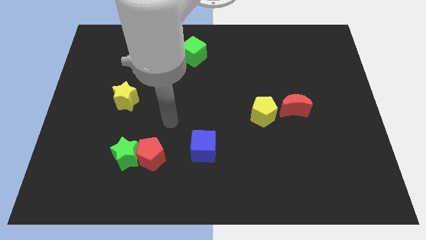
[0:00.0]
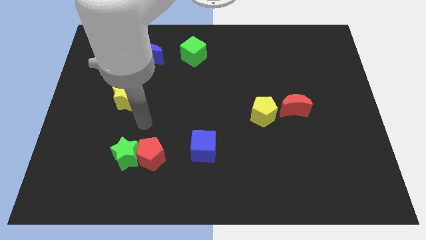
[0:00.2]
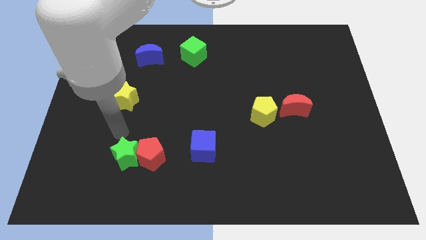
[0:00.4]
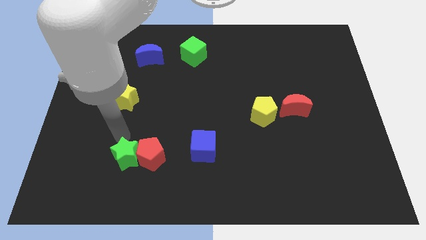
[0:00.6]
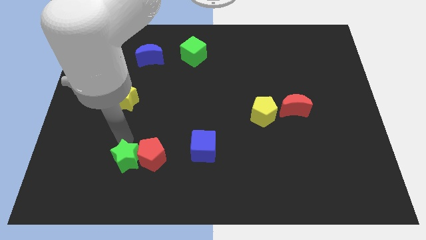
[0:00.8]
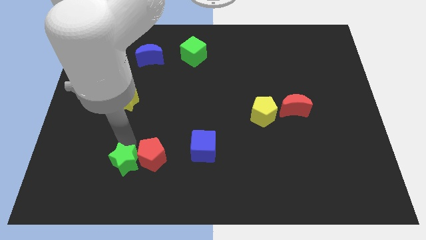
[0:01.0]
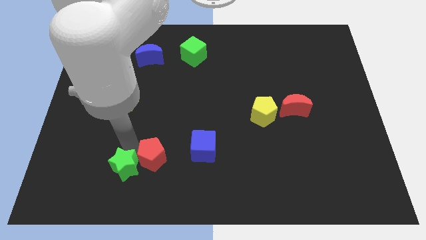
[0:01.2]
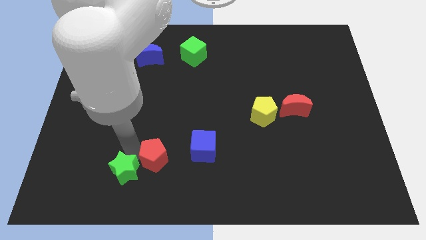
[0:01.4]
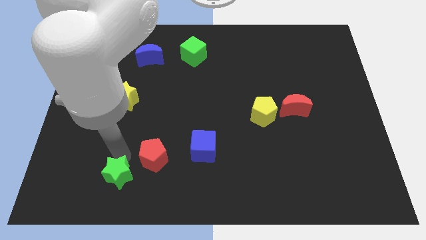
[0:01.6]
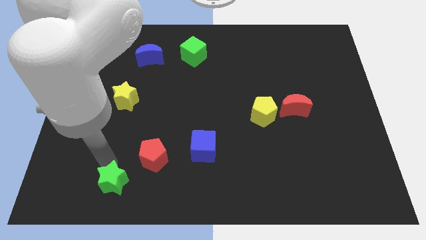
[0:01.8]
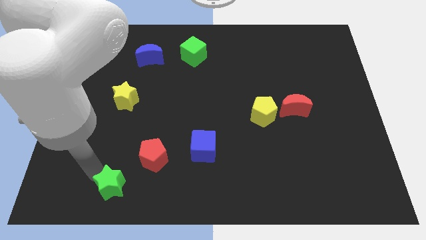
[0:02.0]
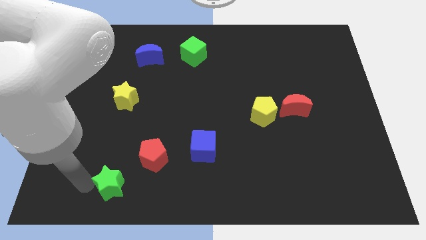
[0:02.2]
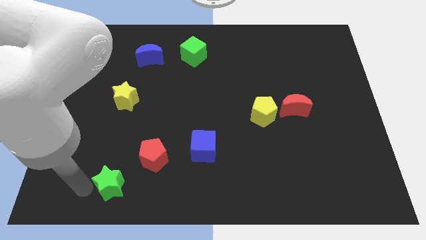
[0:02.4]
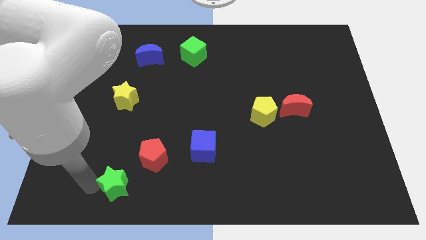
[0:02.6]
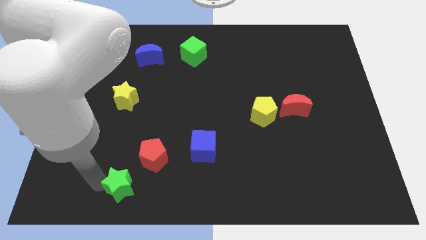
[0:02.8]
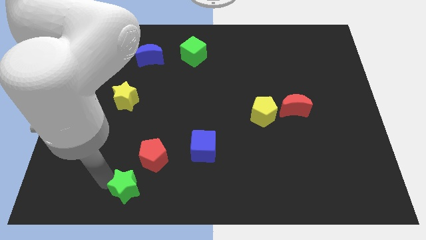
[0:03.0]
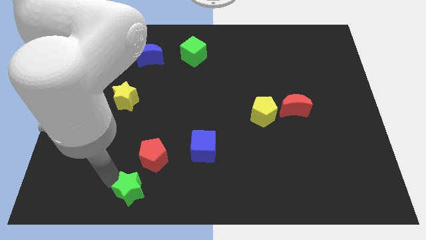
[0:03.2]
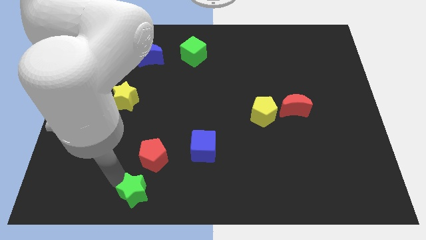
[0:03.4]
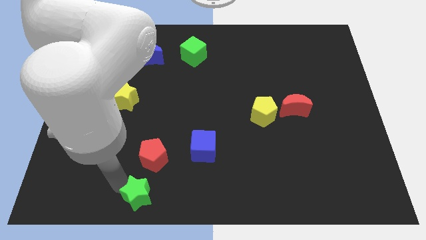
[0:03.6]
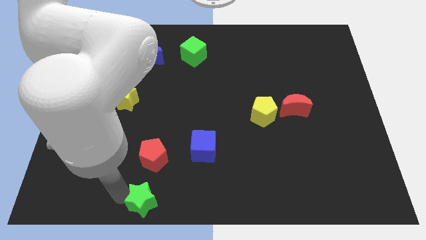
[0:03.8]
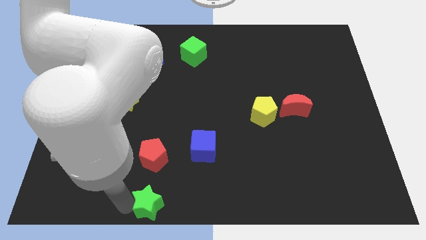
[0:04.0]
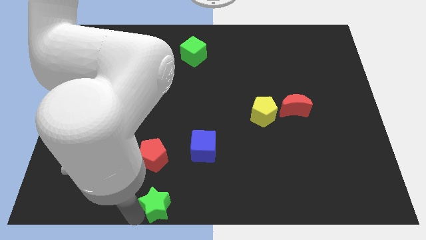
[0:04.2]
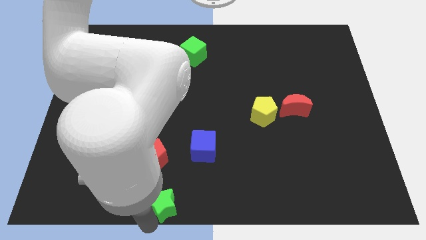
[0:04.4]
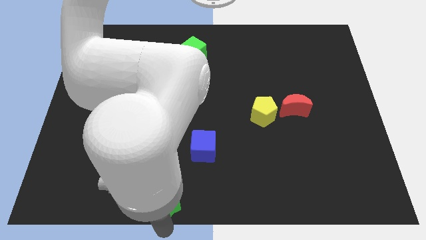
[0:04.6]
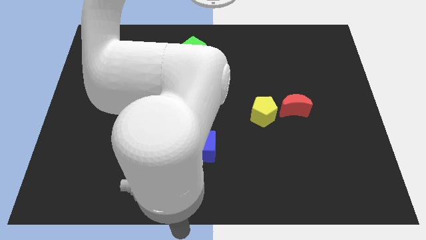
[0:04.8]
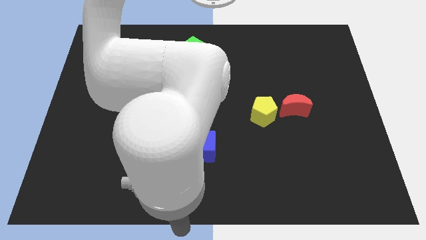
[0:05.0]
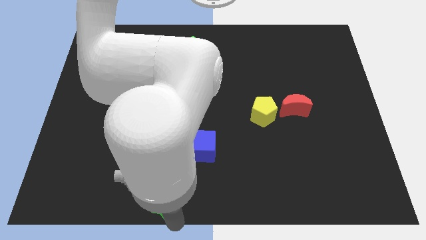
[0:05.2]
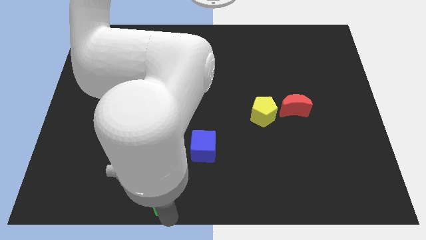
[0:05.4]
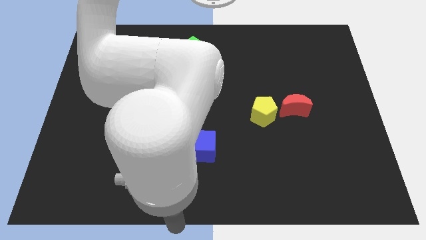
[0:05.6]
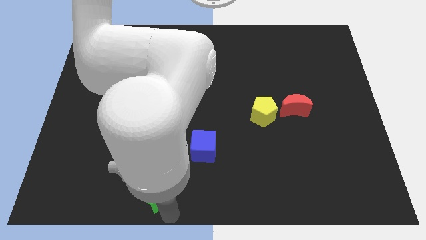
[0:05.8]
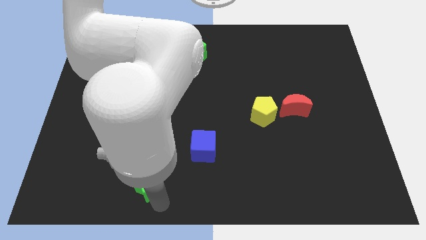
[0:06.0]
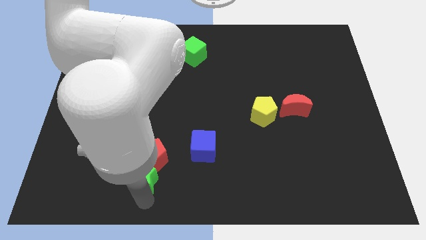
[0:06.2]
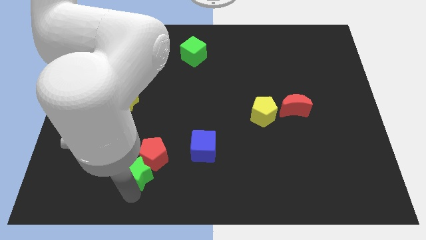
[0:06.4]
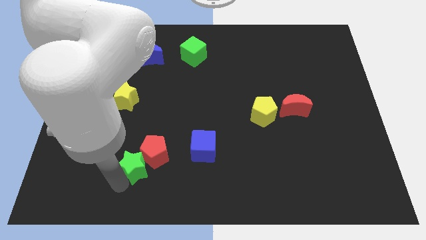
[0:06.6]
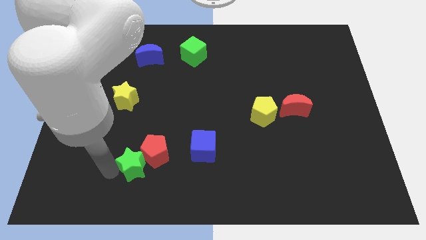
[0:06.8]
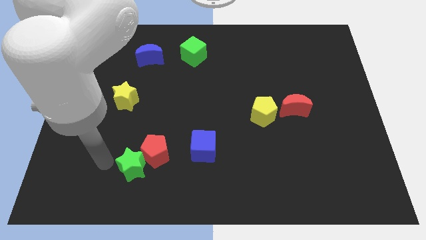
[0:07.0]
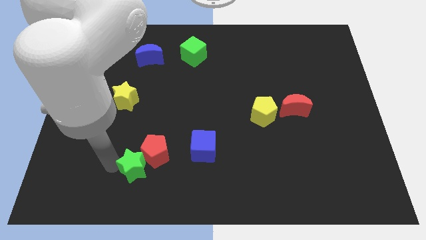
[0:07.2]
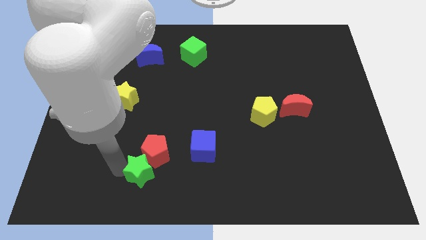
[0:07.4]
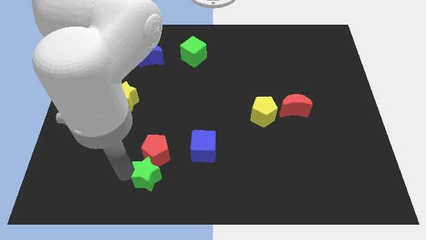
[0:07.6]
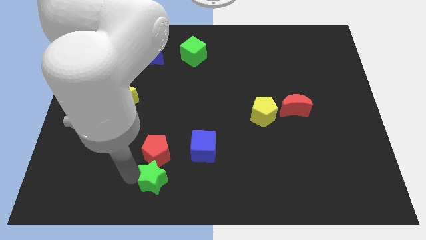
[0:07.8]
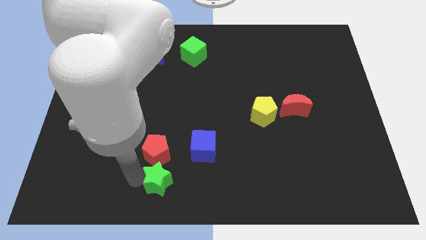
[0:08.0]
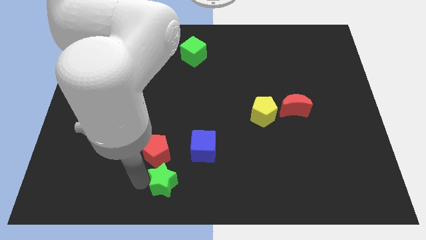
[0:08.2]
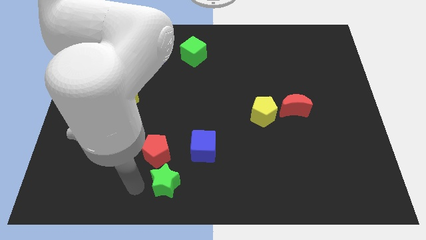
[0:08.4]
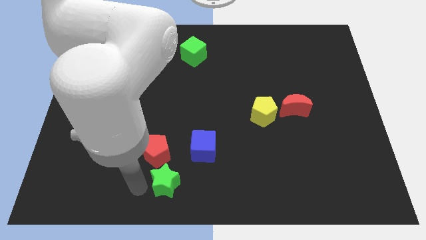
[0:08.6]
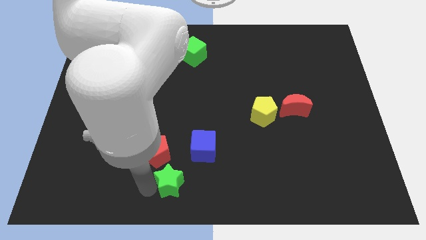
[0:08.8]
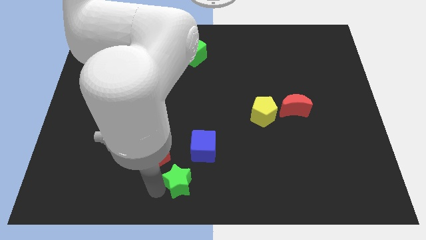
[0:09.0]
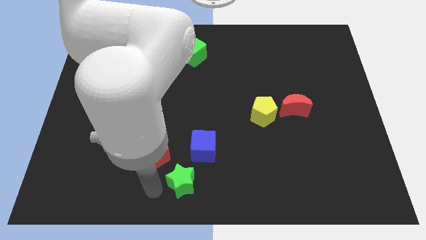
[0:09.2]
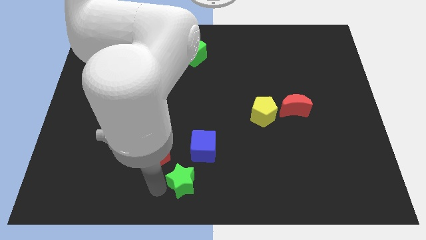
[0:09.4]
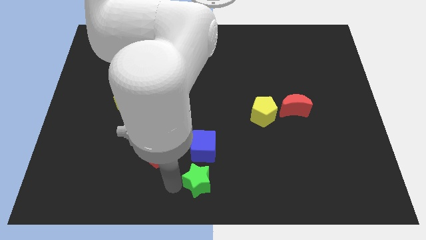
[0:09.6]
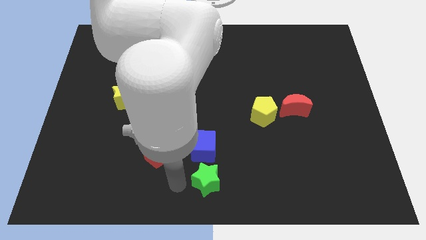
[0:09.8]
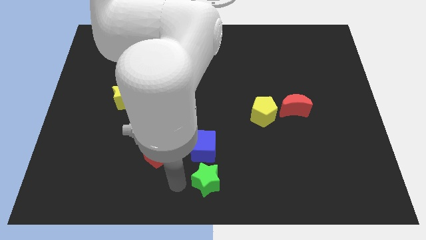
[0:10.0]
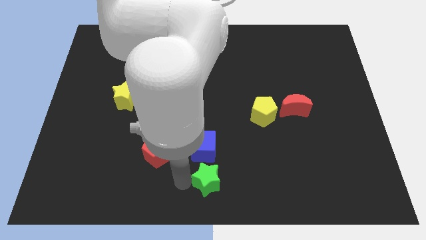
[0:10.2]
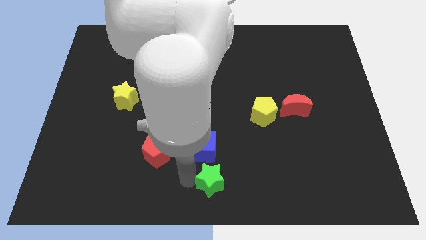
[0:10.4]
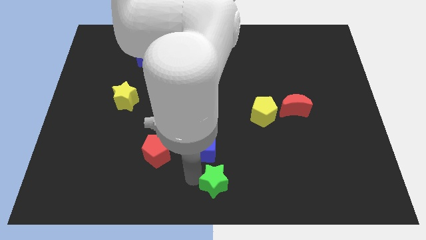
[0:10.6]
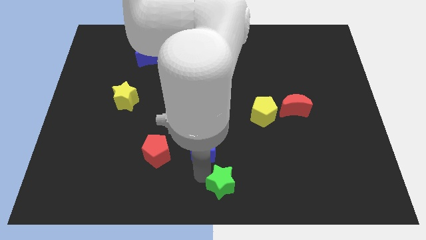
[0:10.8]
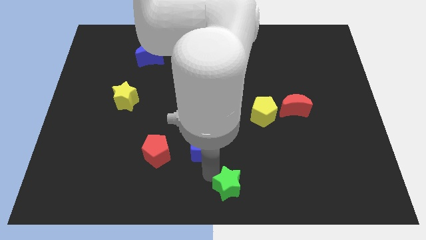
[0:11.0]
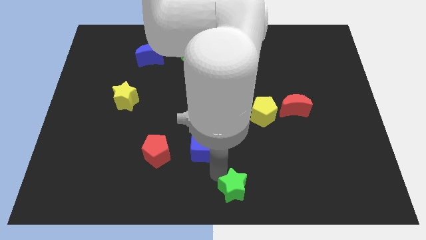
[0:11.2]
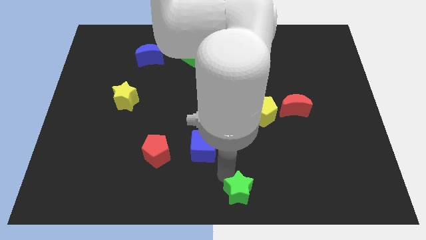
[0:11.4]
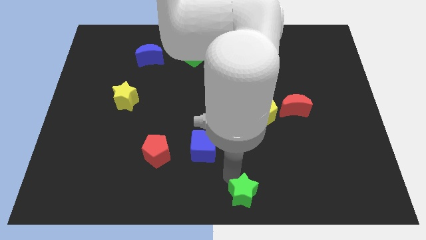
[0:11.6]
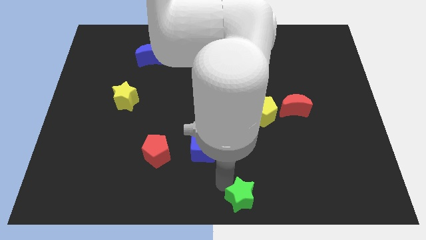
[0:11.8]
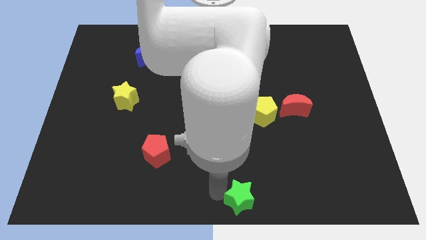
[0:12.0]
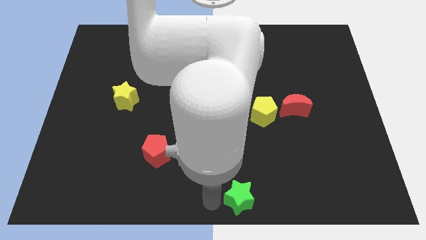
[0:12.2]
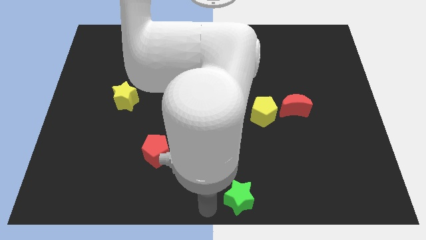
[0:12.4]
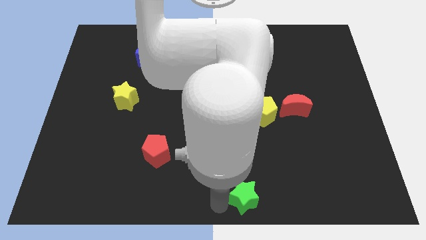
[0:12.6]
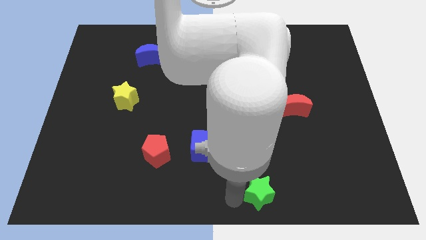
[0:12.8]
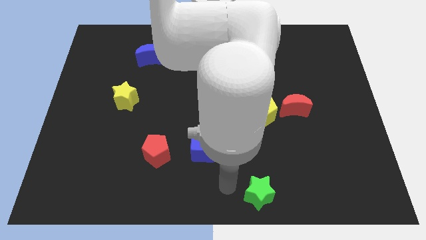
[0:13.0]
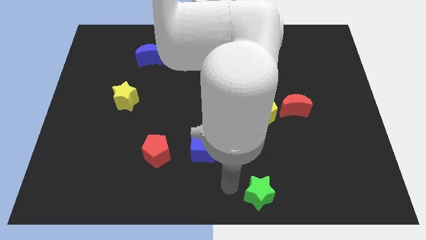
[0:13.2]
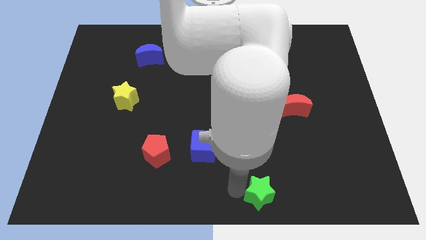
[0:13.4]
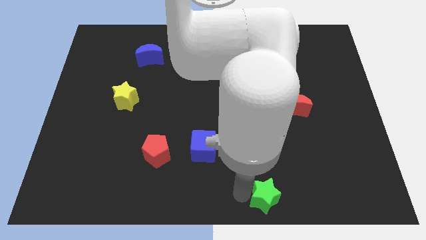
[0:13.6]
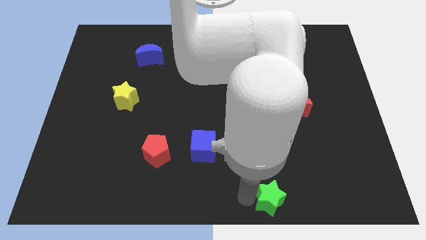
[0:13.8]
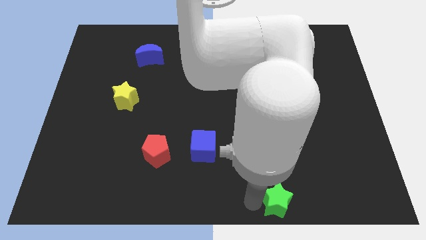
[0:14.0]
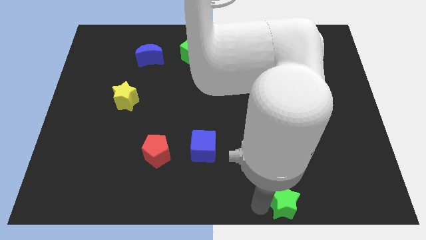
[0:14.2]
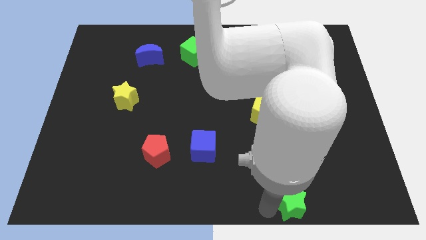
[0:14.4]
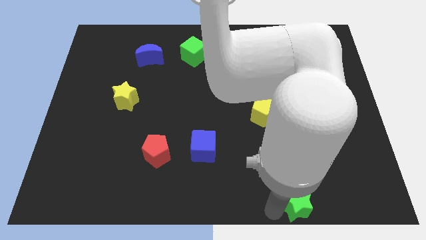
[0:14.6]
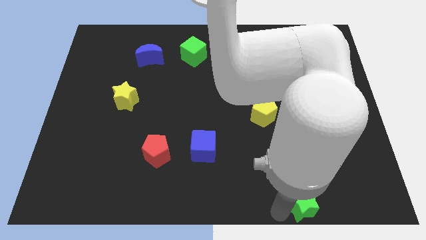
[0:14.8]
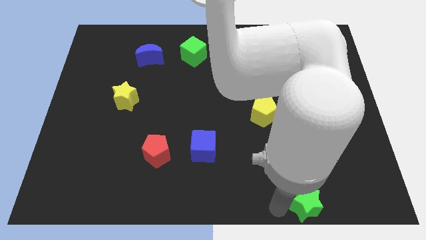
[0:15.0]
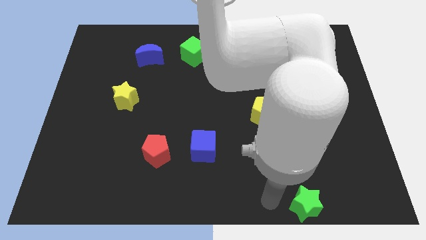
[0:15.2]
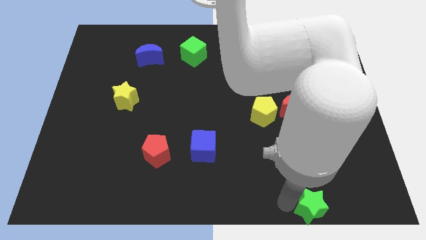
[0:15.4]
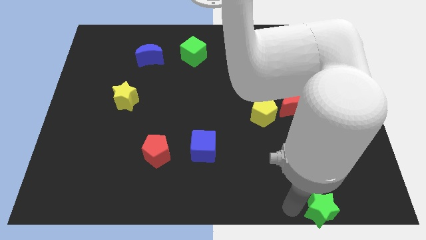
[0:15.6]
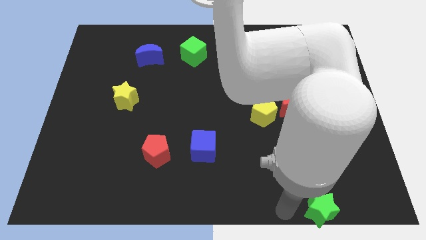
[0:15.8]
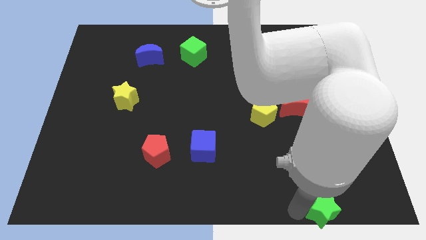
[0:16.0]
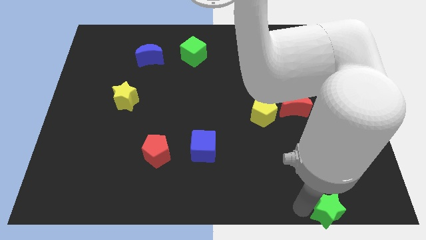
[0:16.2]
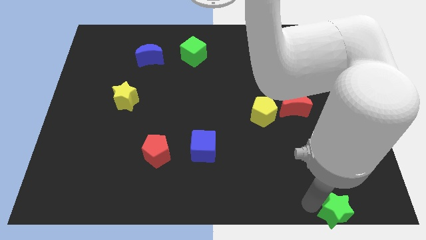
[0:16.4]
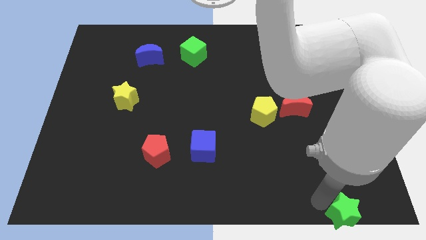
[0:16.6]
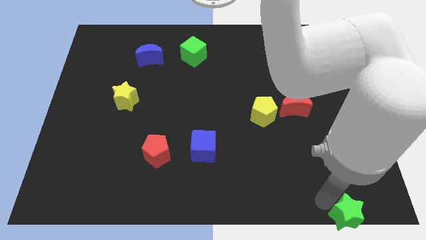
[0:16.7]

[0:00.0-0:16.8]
put the green star to the bottom right corner
